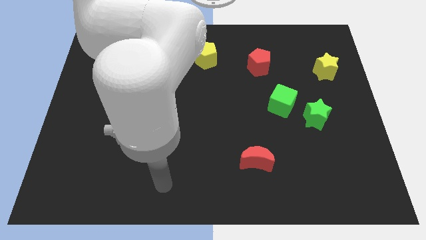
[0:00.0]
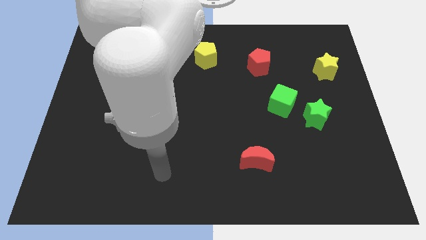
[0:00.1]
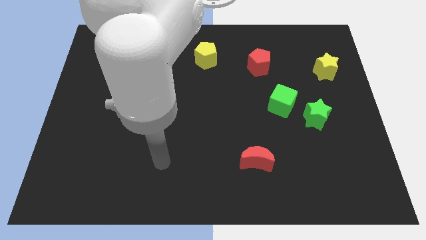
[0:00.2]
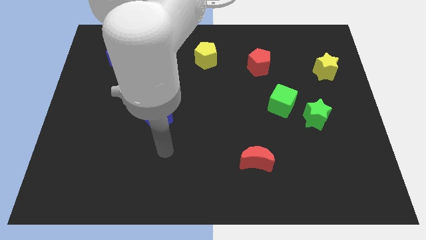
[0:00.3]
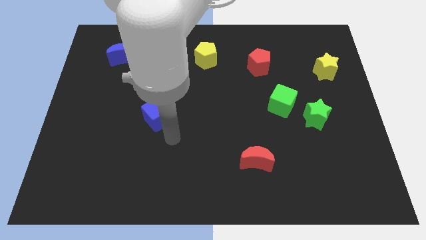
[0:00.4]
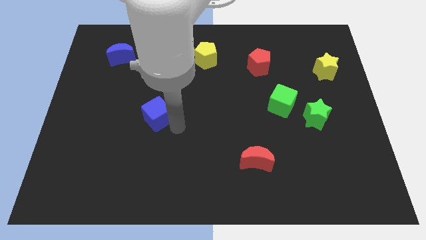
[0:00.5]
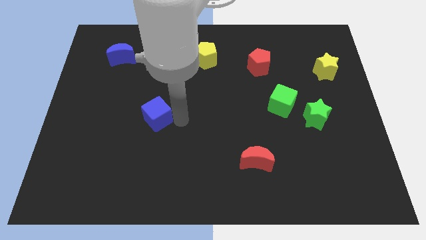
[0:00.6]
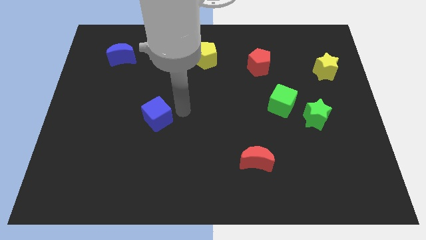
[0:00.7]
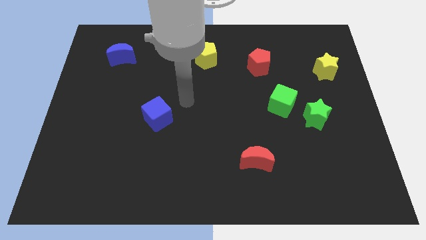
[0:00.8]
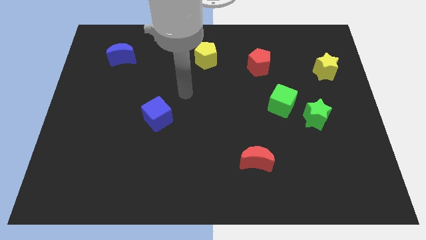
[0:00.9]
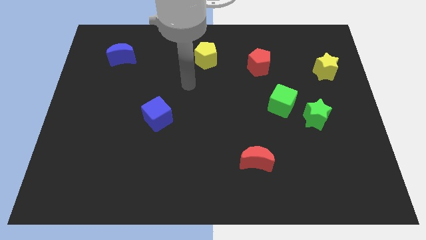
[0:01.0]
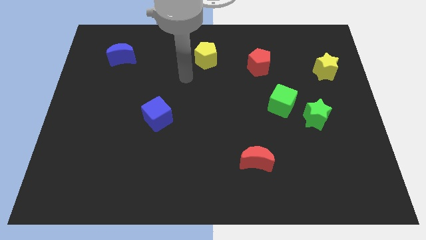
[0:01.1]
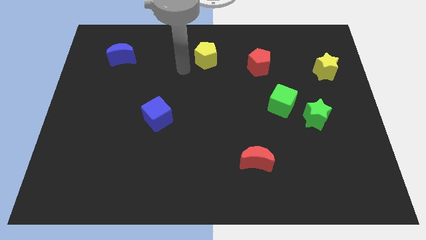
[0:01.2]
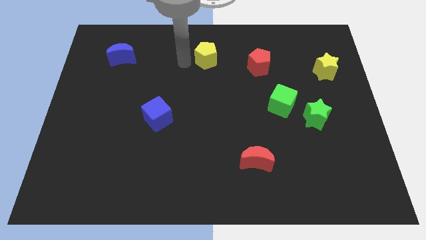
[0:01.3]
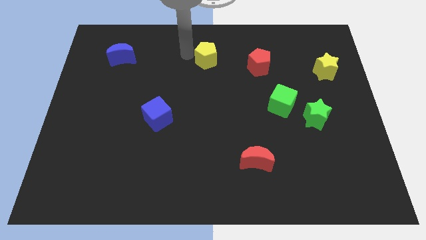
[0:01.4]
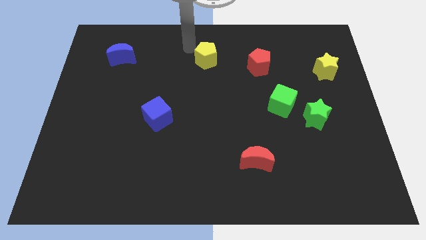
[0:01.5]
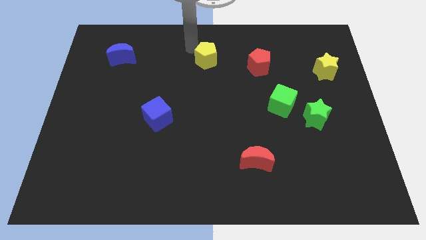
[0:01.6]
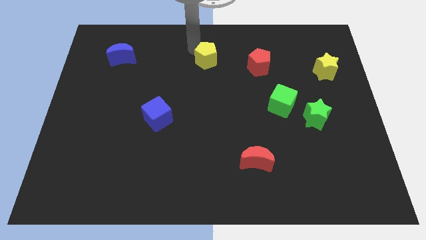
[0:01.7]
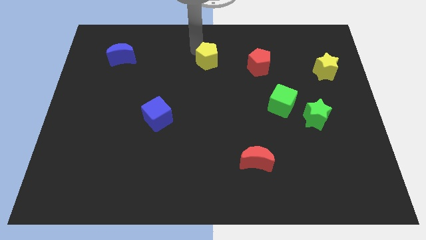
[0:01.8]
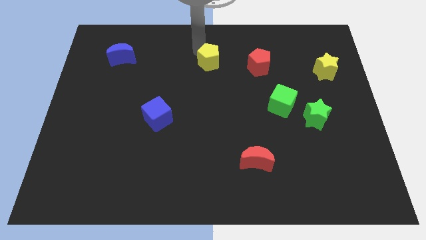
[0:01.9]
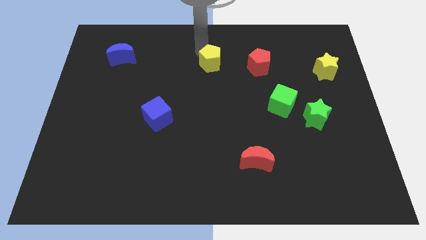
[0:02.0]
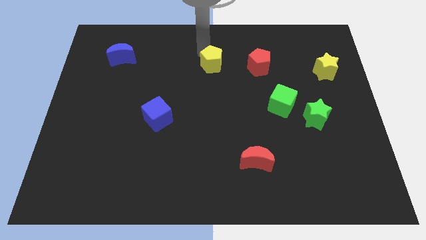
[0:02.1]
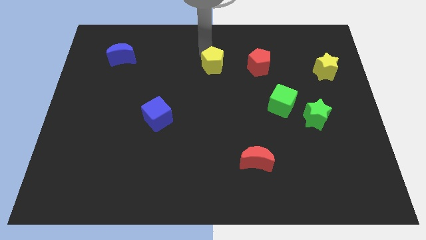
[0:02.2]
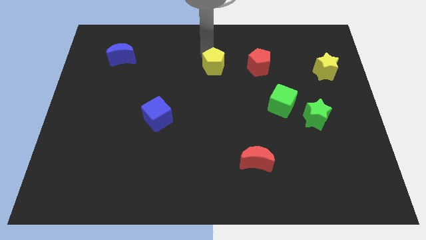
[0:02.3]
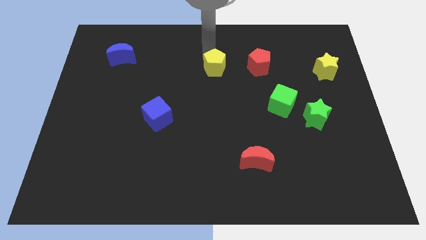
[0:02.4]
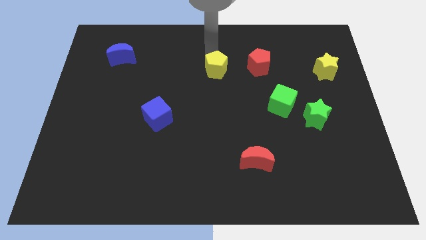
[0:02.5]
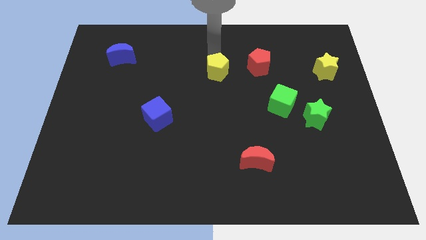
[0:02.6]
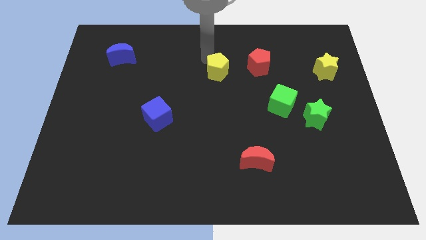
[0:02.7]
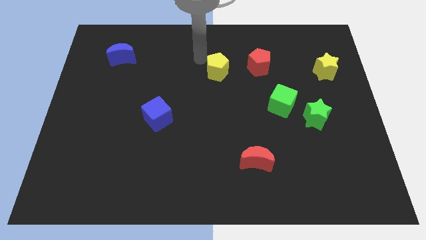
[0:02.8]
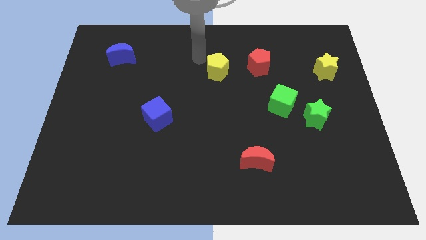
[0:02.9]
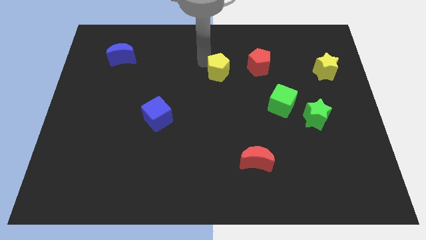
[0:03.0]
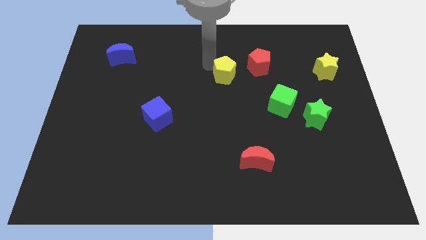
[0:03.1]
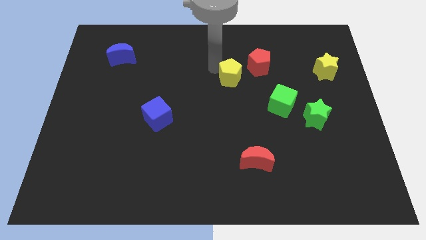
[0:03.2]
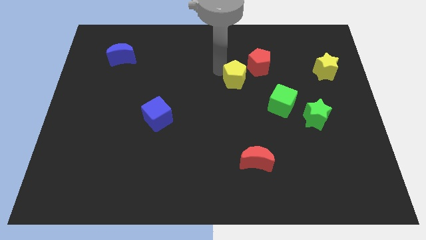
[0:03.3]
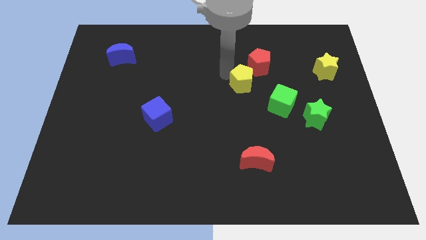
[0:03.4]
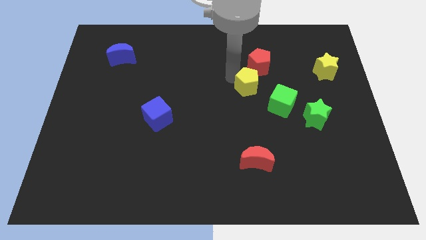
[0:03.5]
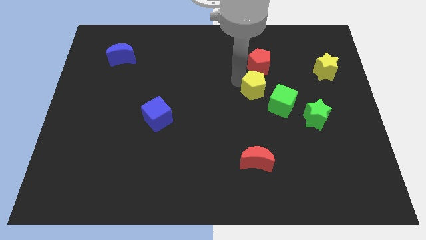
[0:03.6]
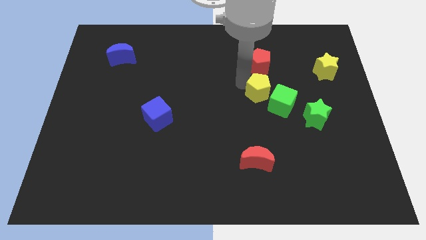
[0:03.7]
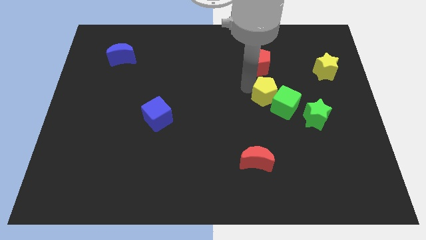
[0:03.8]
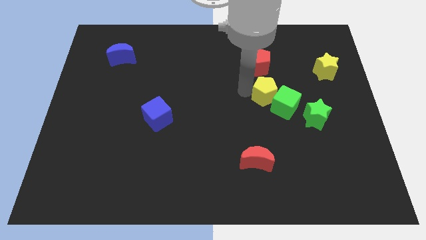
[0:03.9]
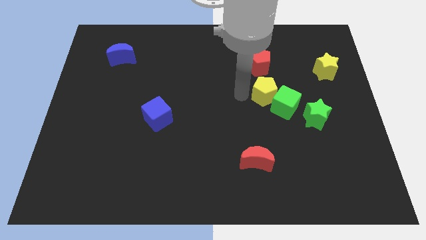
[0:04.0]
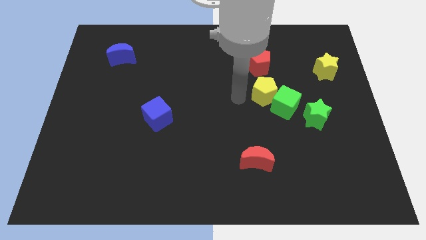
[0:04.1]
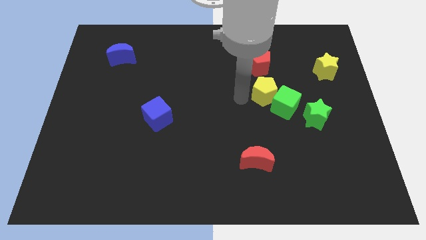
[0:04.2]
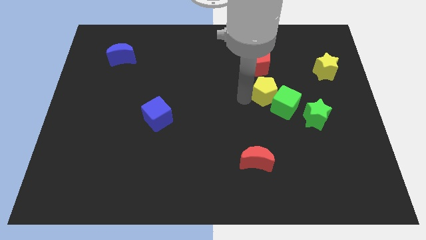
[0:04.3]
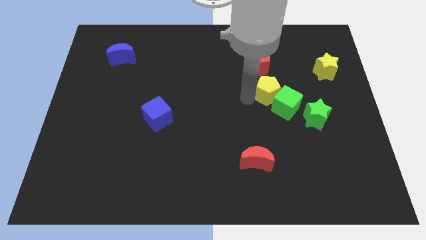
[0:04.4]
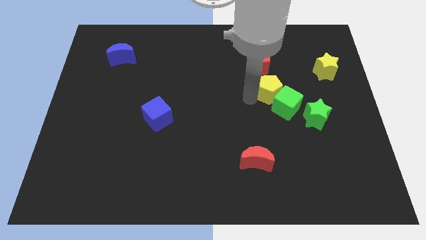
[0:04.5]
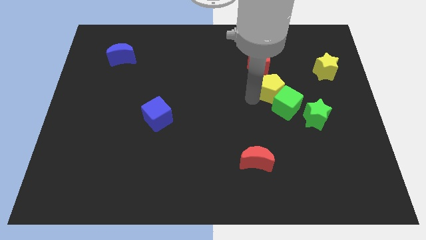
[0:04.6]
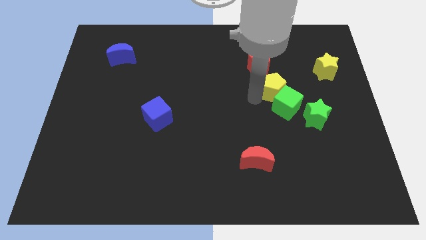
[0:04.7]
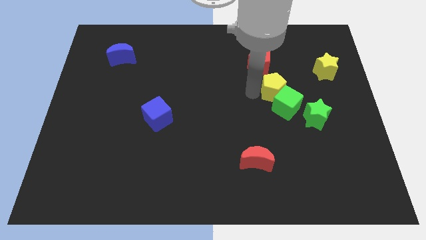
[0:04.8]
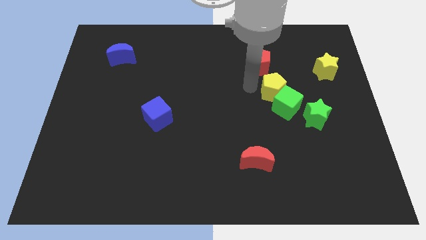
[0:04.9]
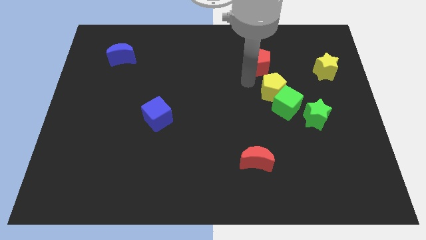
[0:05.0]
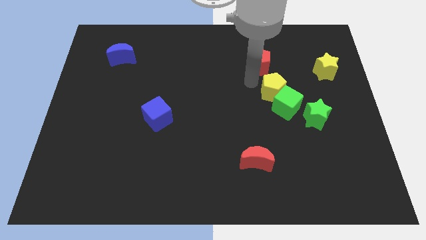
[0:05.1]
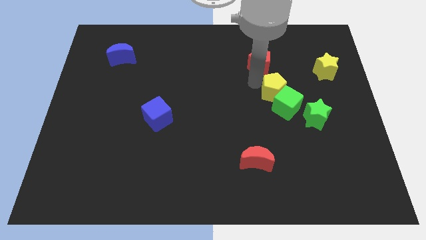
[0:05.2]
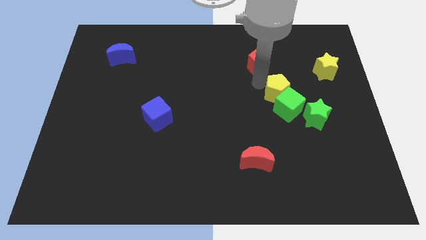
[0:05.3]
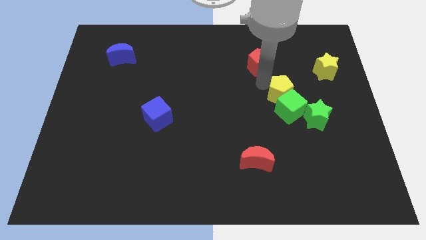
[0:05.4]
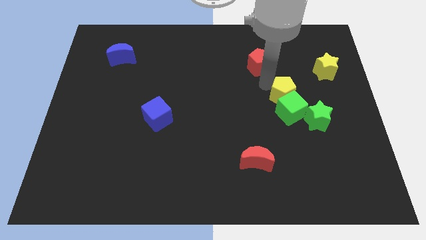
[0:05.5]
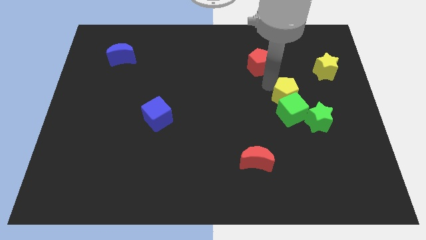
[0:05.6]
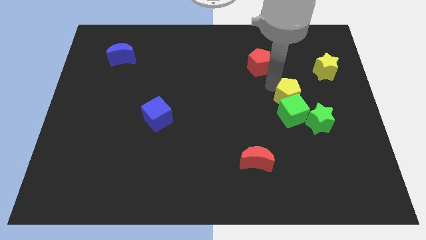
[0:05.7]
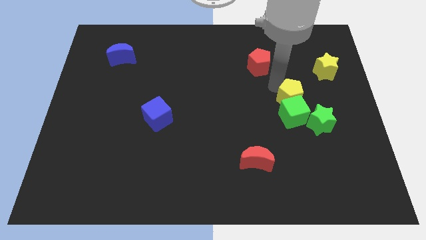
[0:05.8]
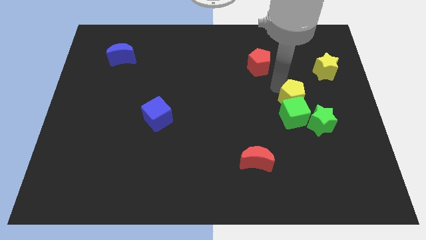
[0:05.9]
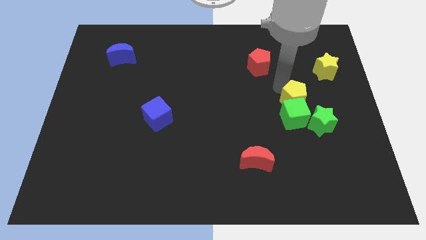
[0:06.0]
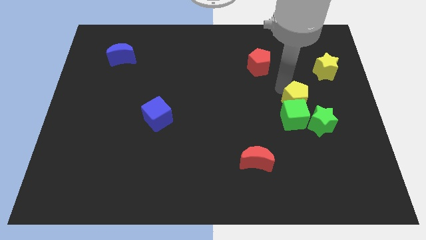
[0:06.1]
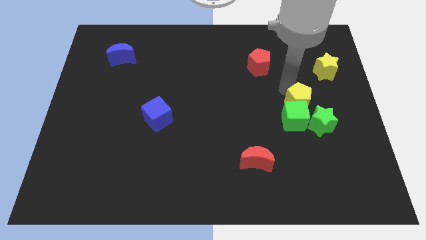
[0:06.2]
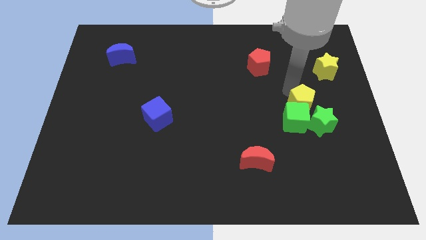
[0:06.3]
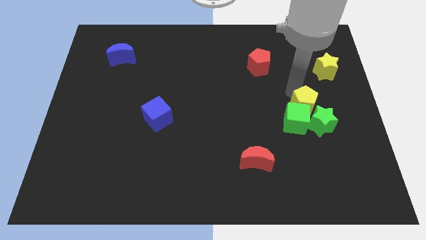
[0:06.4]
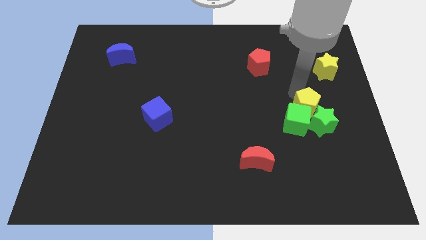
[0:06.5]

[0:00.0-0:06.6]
put the yellow pentagon close to the green star

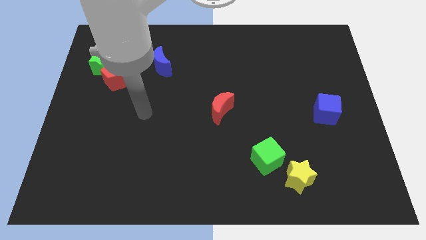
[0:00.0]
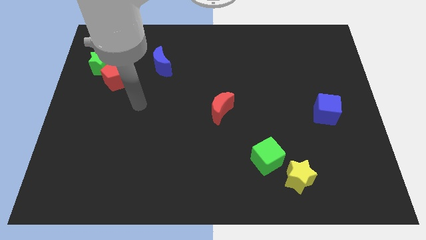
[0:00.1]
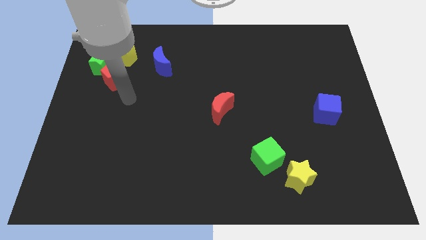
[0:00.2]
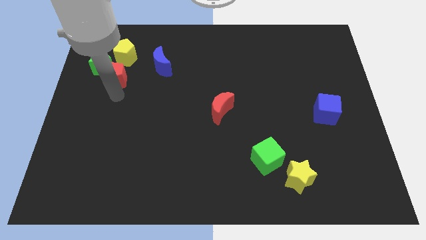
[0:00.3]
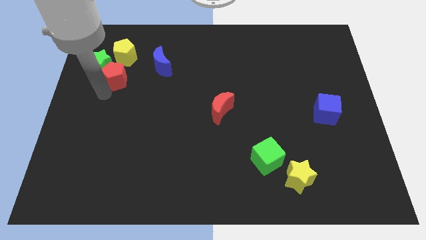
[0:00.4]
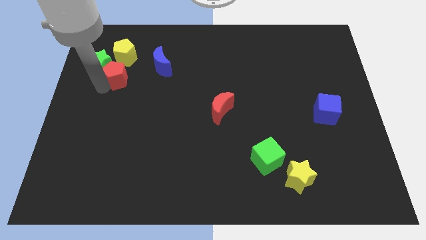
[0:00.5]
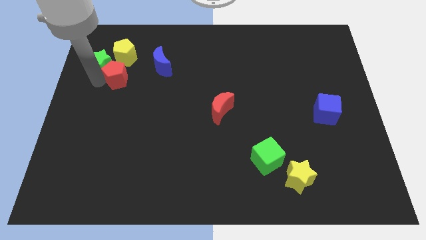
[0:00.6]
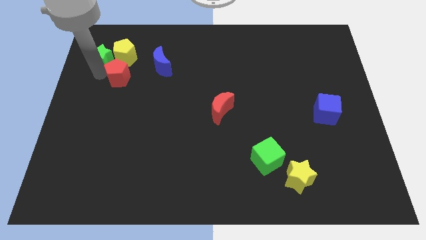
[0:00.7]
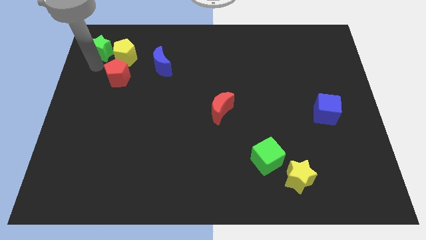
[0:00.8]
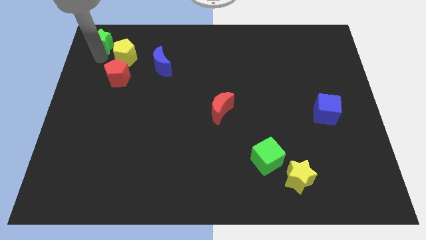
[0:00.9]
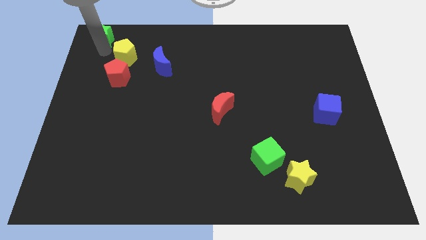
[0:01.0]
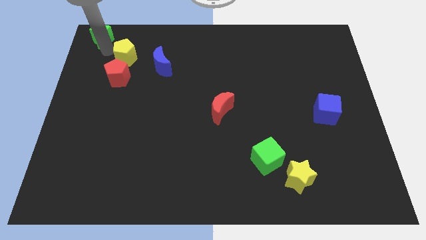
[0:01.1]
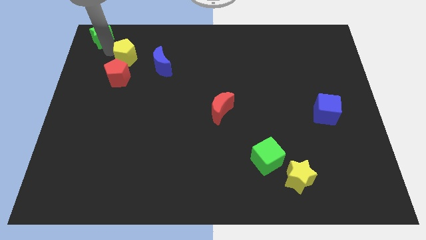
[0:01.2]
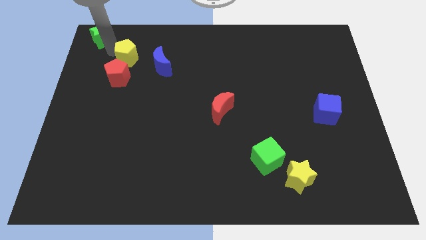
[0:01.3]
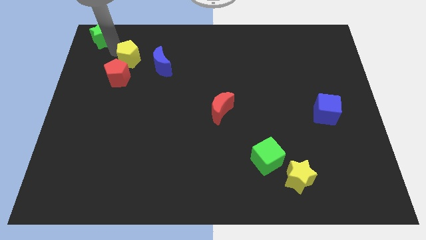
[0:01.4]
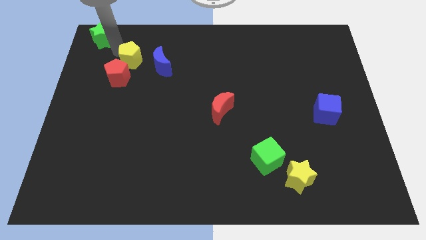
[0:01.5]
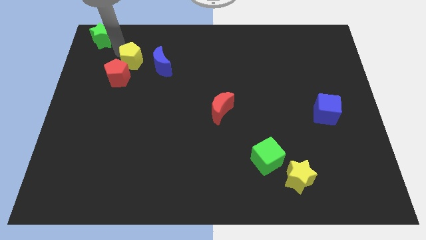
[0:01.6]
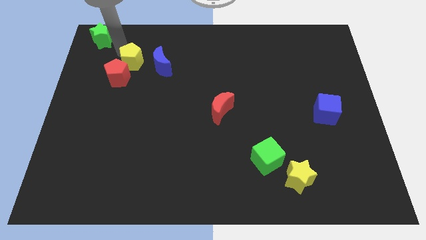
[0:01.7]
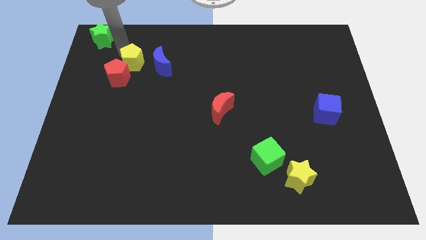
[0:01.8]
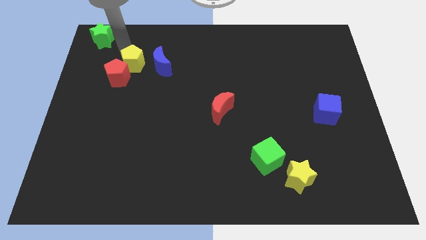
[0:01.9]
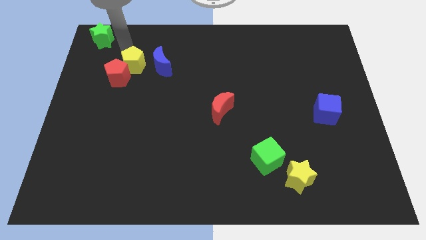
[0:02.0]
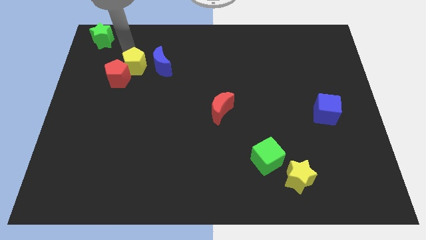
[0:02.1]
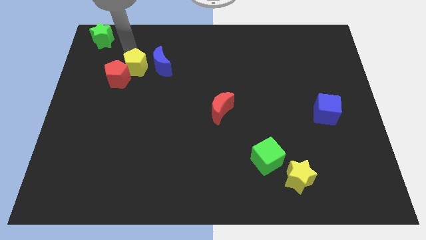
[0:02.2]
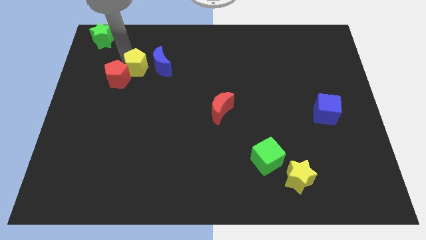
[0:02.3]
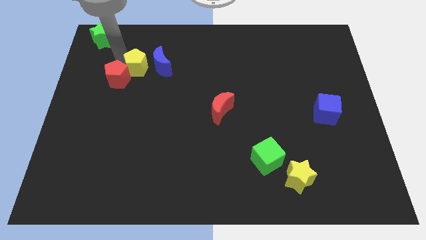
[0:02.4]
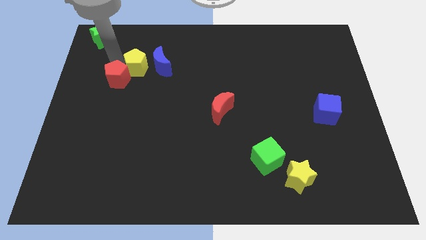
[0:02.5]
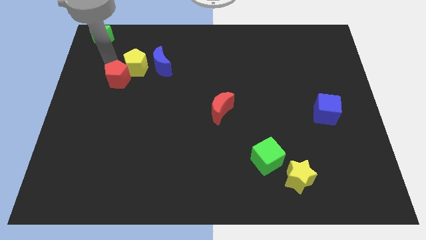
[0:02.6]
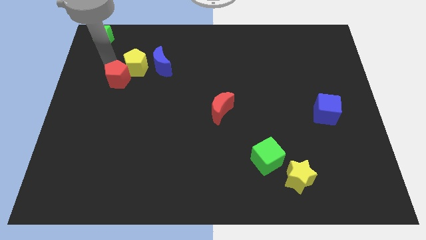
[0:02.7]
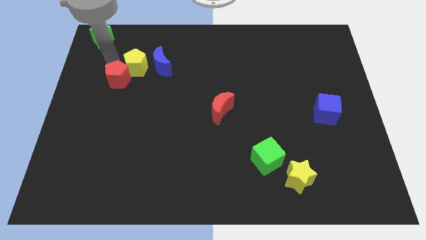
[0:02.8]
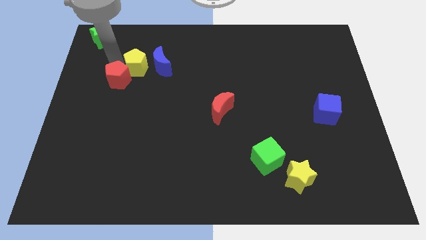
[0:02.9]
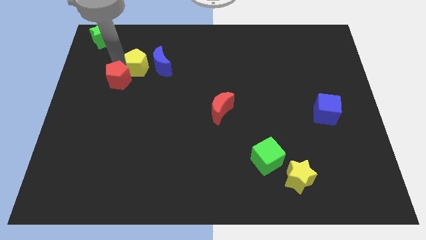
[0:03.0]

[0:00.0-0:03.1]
move the yellow pentagon close to the blue moon
